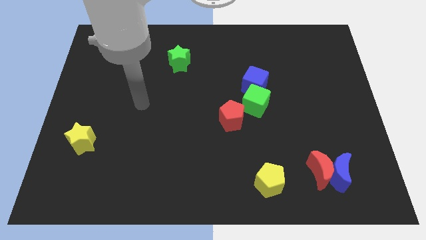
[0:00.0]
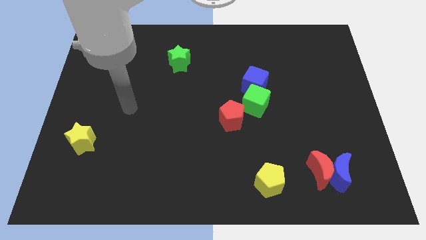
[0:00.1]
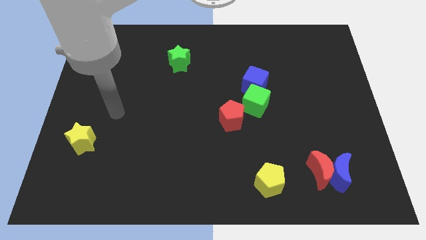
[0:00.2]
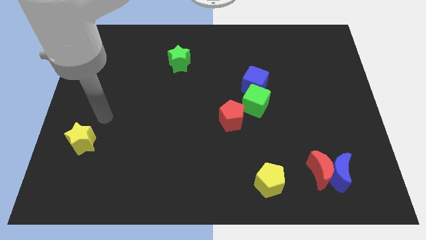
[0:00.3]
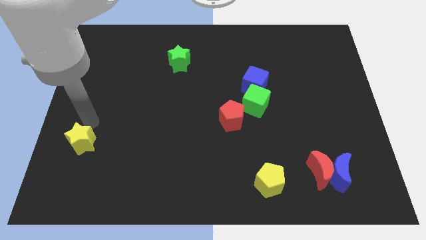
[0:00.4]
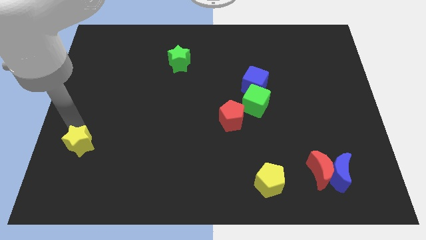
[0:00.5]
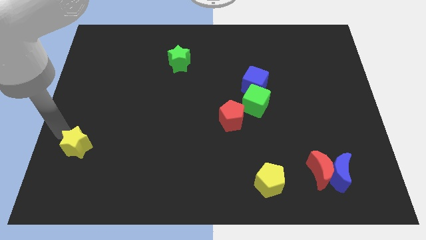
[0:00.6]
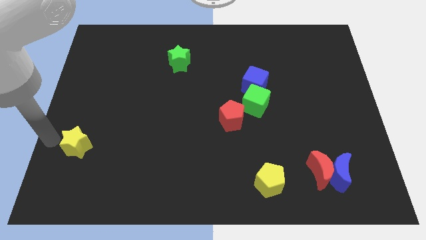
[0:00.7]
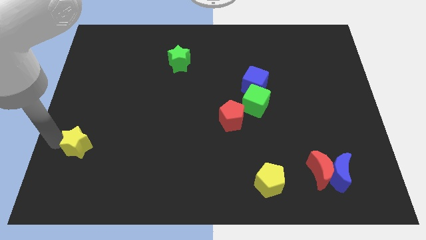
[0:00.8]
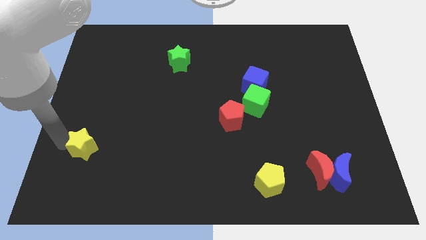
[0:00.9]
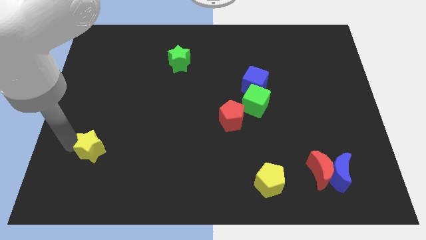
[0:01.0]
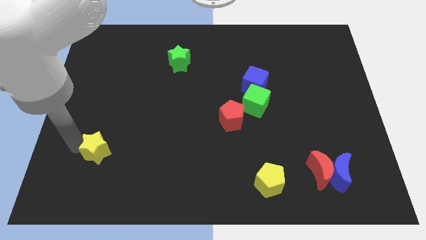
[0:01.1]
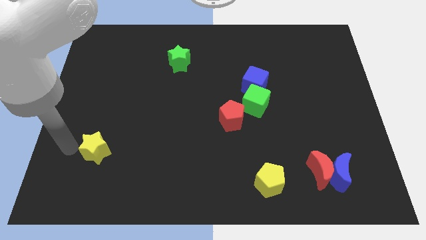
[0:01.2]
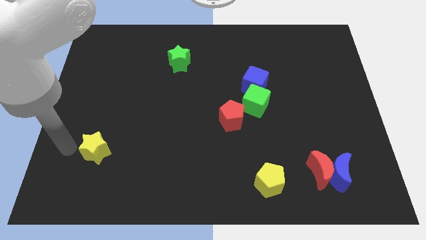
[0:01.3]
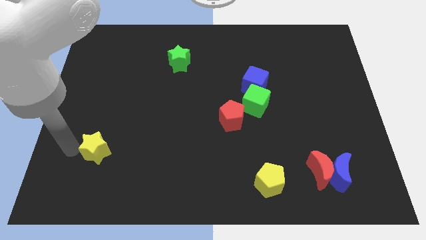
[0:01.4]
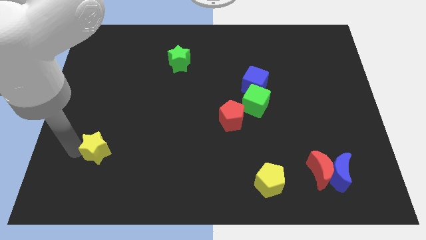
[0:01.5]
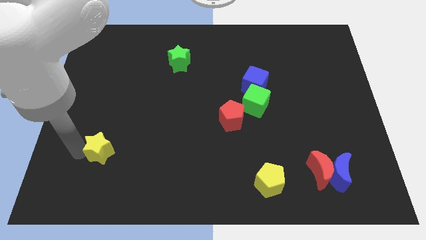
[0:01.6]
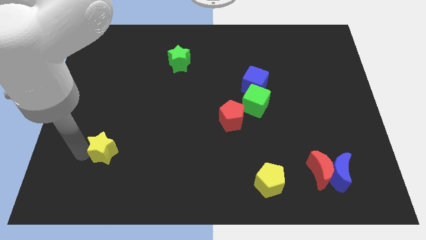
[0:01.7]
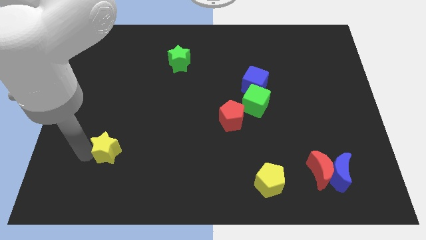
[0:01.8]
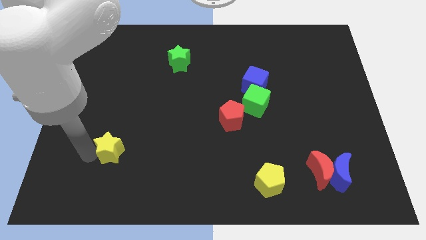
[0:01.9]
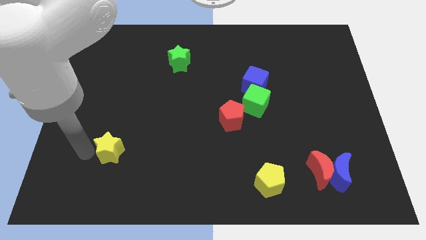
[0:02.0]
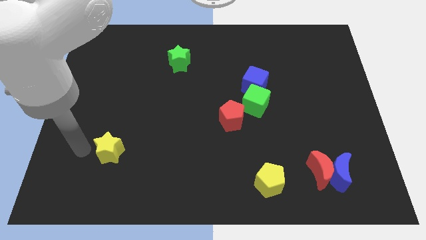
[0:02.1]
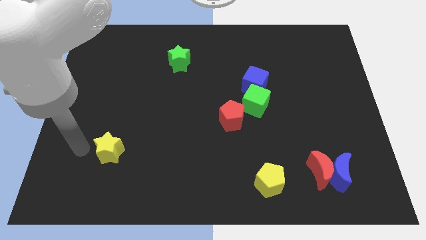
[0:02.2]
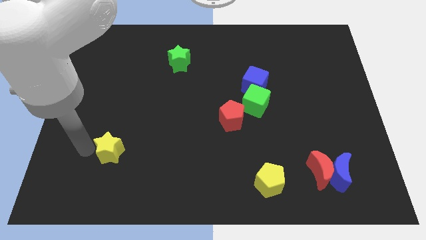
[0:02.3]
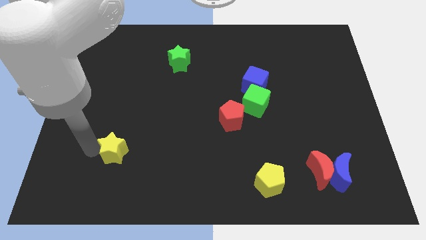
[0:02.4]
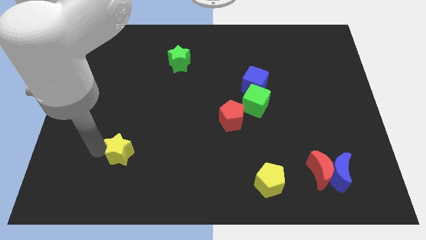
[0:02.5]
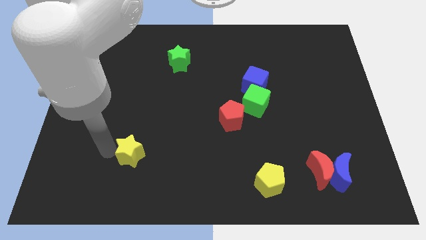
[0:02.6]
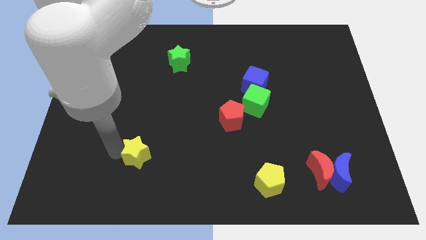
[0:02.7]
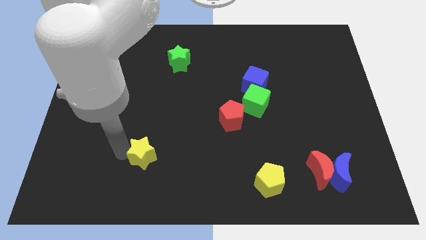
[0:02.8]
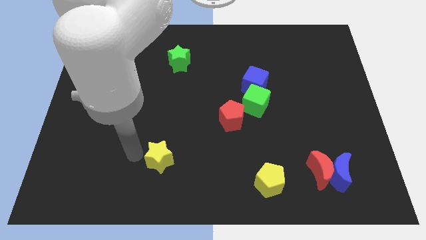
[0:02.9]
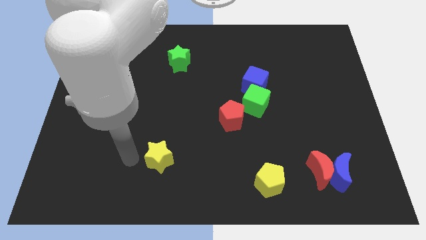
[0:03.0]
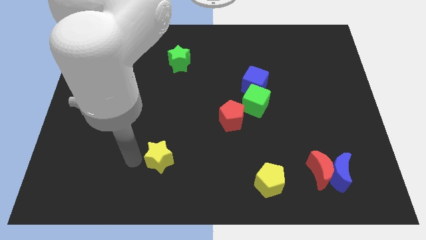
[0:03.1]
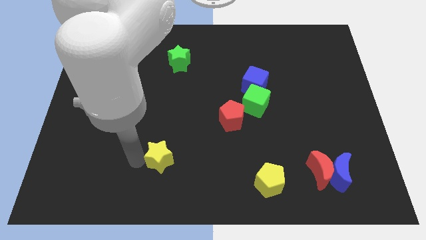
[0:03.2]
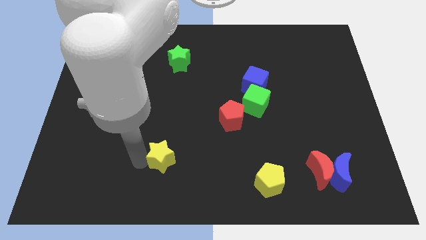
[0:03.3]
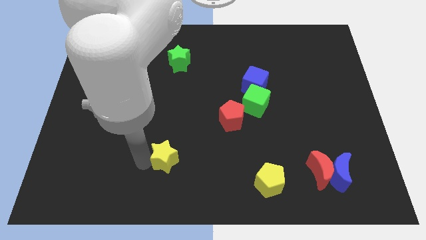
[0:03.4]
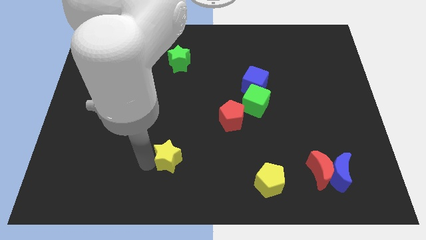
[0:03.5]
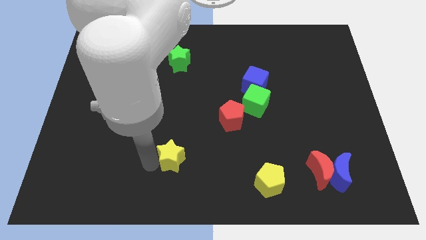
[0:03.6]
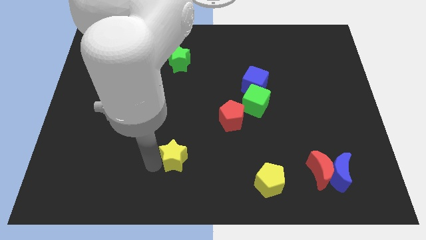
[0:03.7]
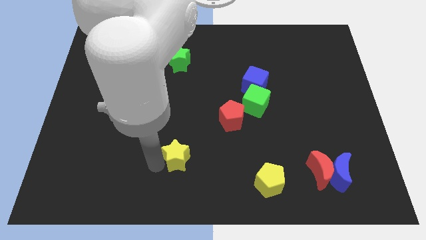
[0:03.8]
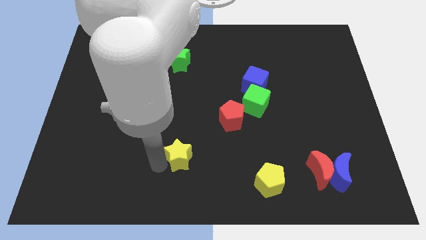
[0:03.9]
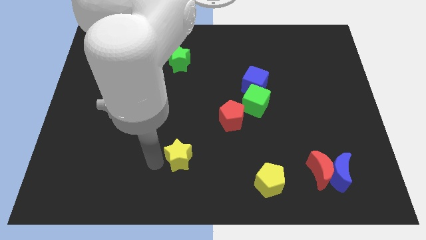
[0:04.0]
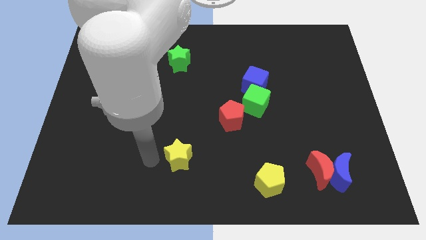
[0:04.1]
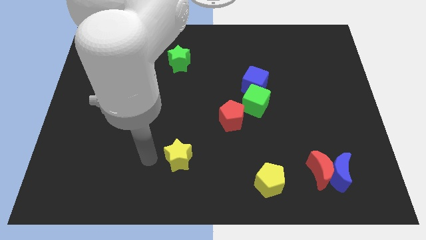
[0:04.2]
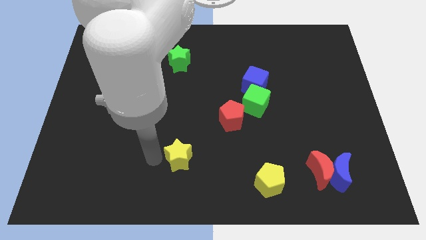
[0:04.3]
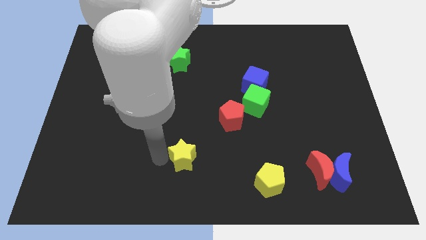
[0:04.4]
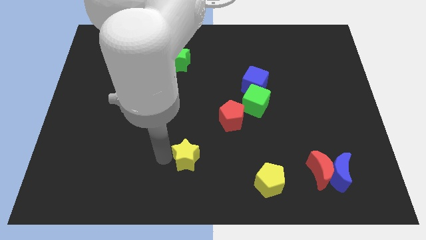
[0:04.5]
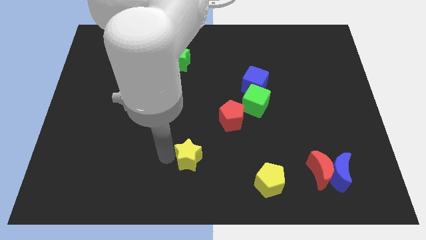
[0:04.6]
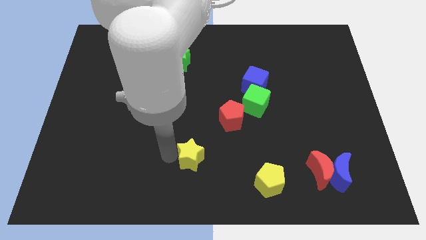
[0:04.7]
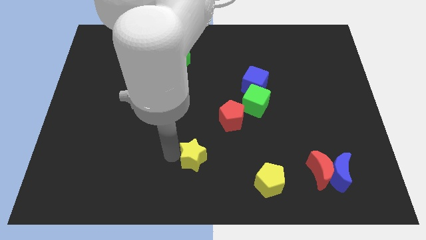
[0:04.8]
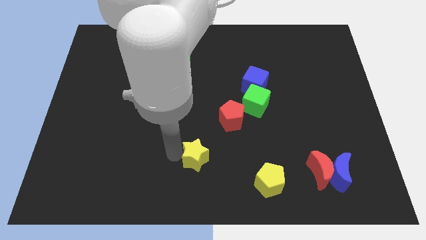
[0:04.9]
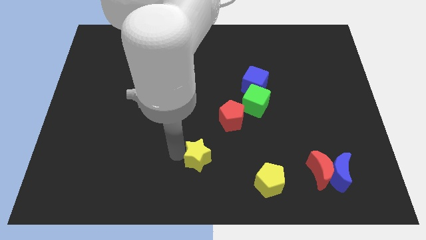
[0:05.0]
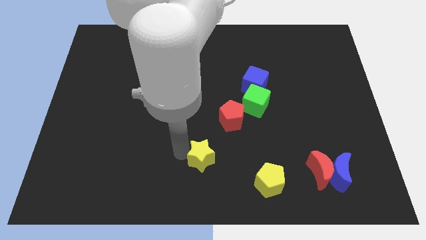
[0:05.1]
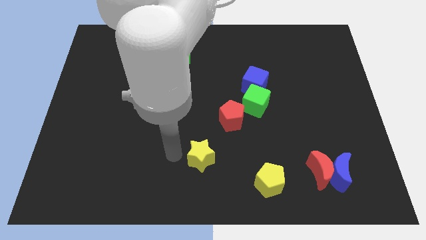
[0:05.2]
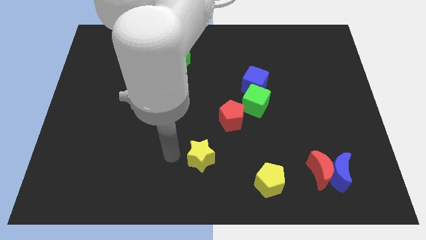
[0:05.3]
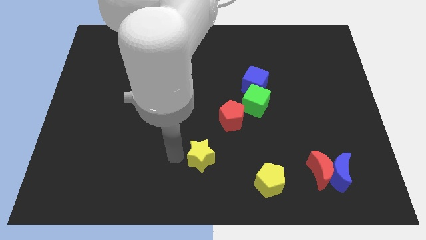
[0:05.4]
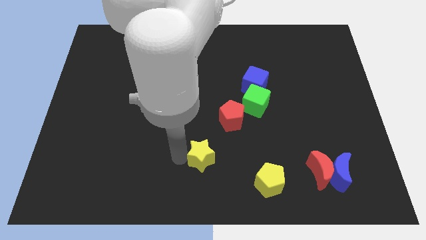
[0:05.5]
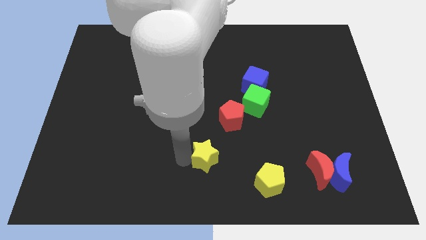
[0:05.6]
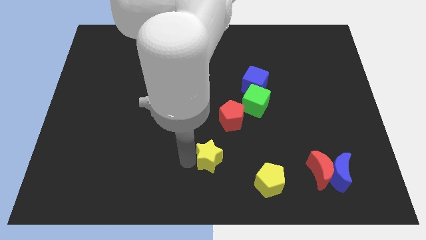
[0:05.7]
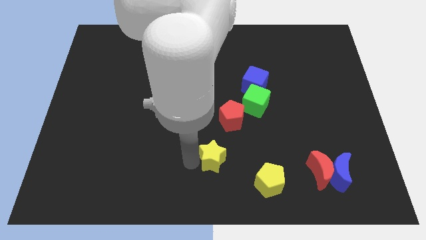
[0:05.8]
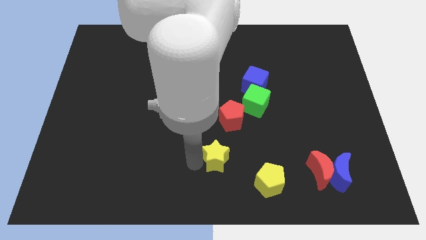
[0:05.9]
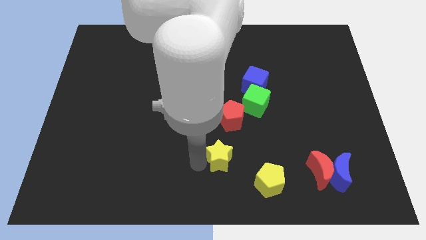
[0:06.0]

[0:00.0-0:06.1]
put the yellow star to the top left side of the yellow pentagon

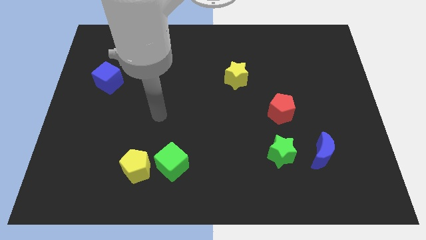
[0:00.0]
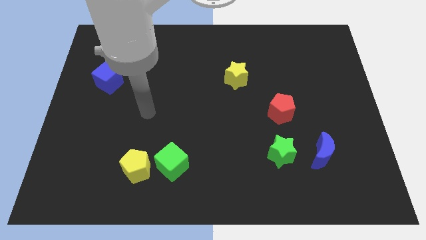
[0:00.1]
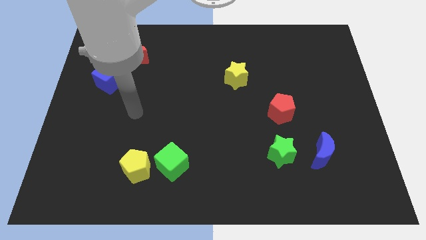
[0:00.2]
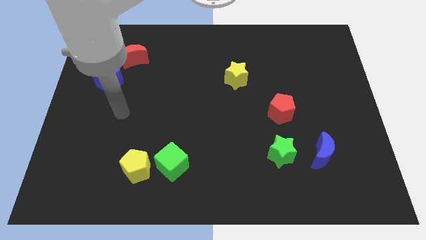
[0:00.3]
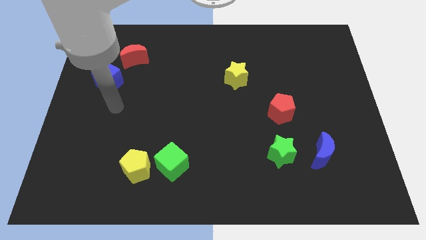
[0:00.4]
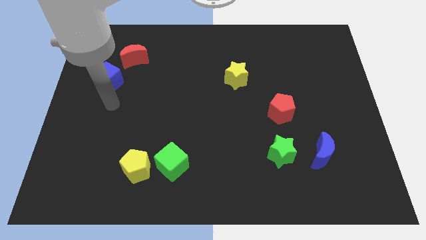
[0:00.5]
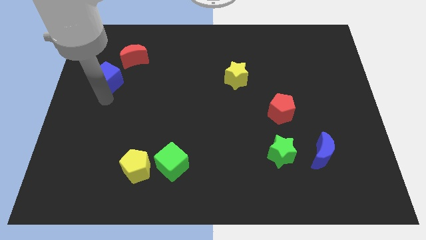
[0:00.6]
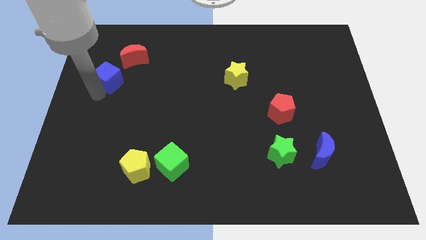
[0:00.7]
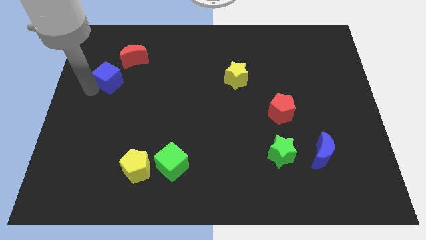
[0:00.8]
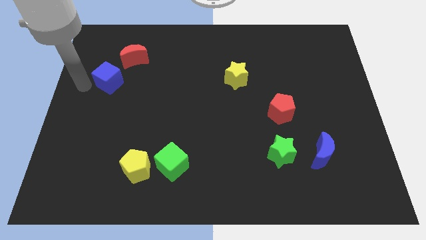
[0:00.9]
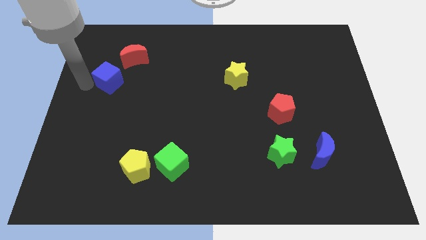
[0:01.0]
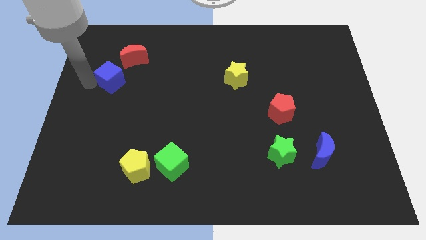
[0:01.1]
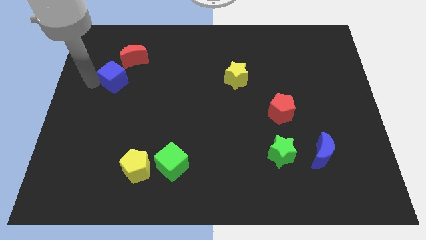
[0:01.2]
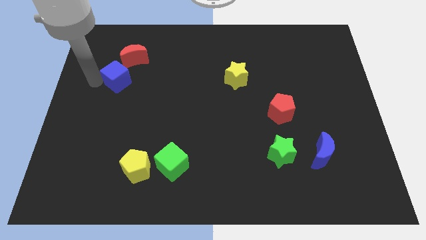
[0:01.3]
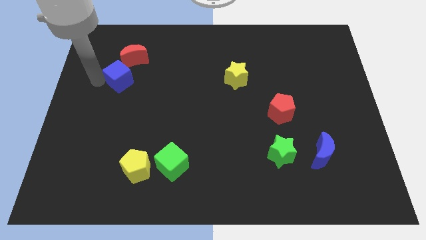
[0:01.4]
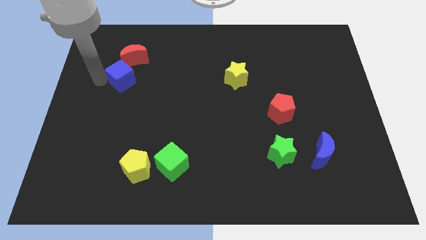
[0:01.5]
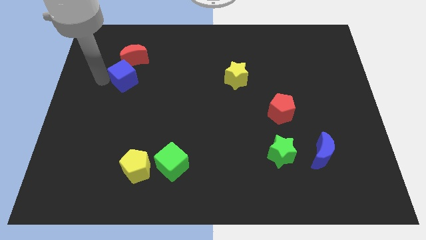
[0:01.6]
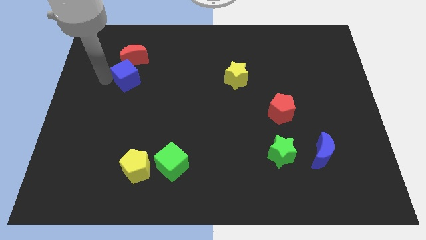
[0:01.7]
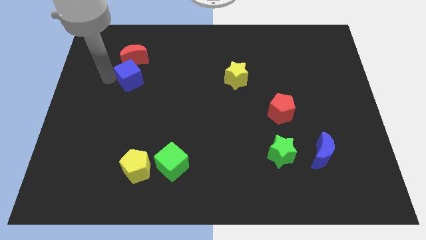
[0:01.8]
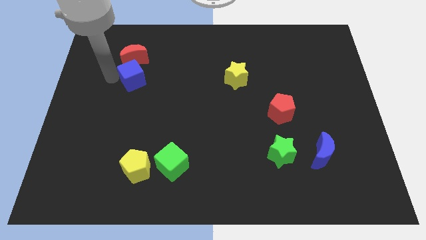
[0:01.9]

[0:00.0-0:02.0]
put the blue cube diagonally down and to the right of the red moon
